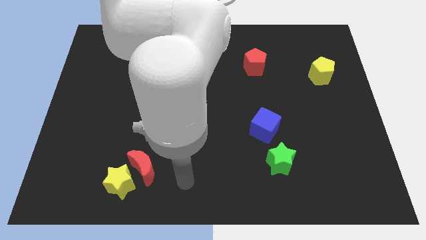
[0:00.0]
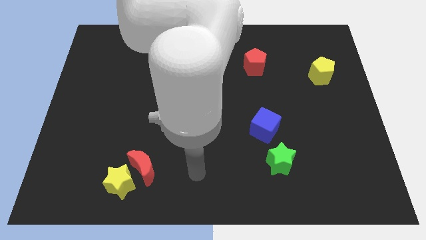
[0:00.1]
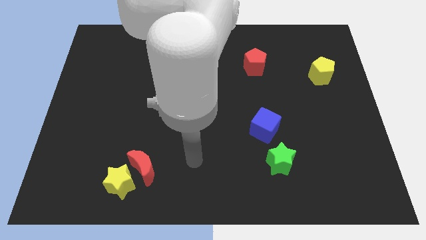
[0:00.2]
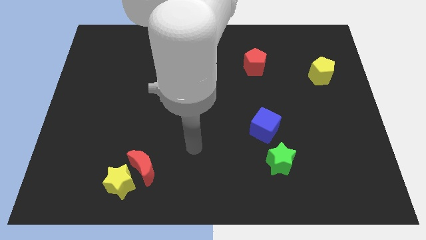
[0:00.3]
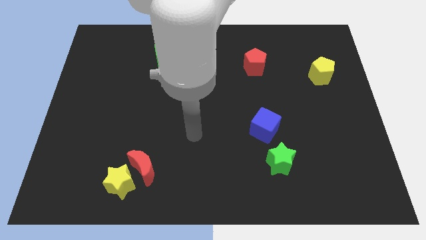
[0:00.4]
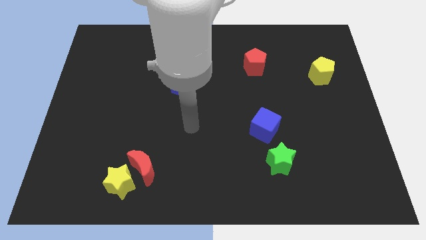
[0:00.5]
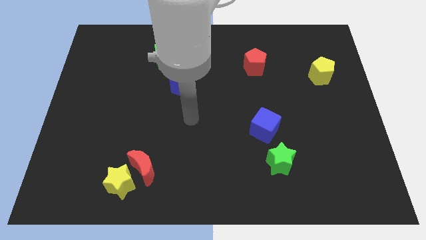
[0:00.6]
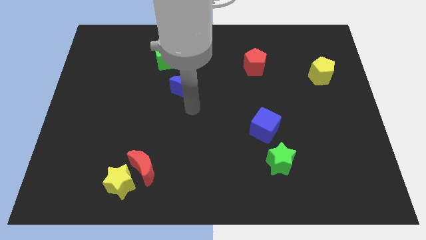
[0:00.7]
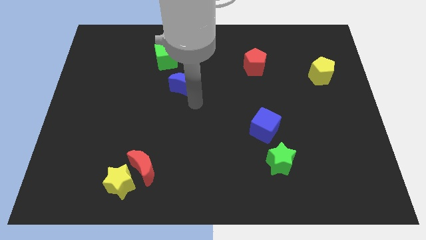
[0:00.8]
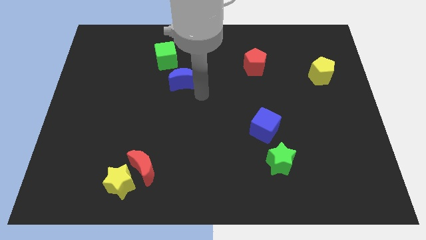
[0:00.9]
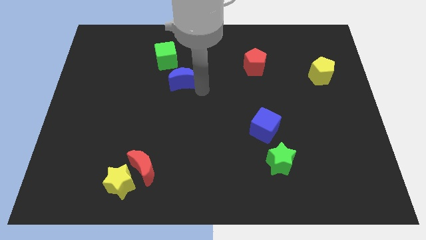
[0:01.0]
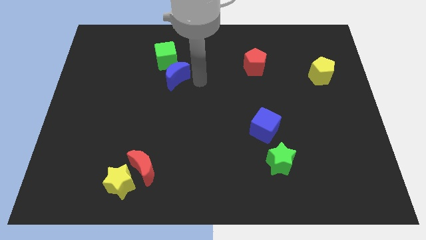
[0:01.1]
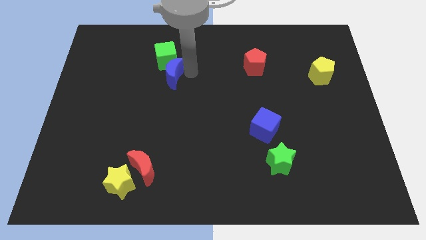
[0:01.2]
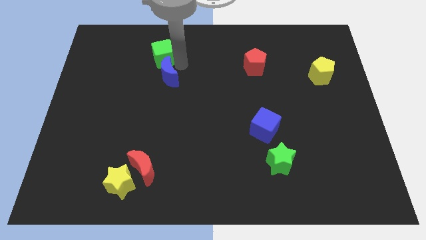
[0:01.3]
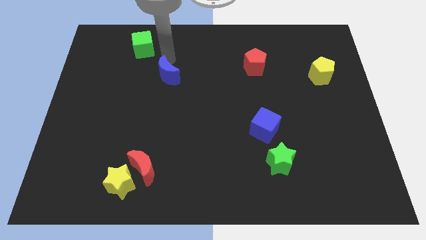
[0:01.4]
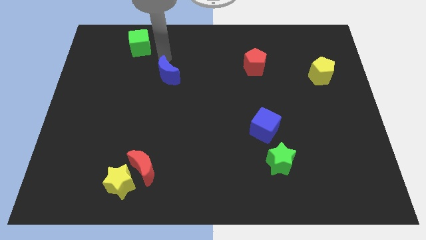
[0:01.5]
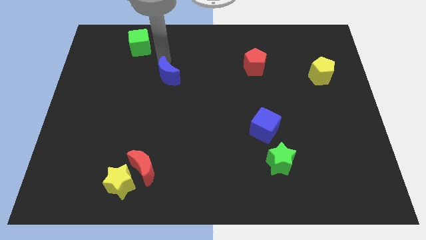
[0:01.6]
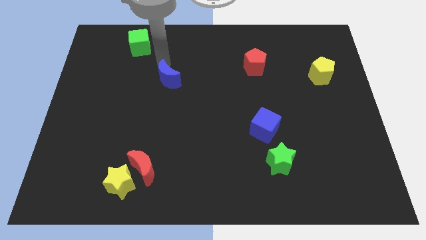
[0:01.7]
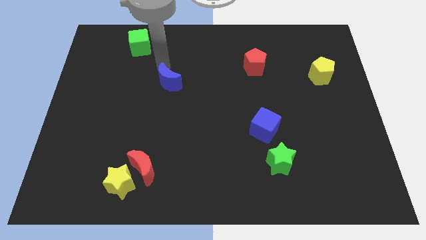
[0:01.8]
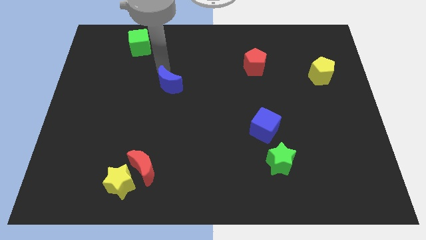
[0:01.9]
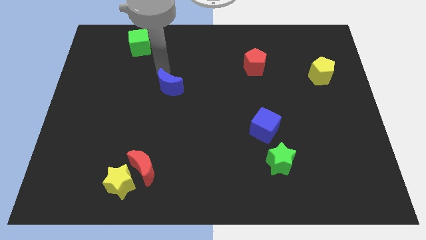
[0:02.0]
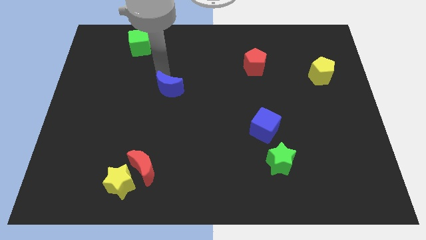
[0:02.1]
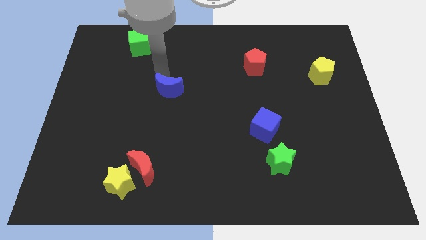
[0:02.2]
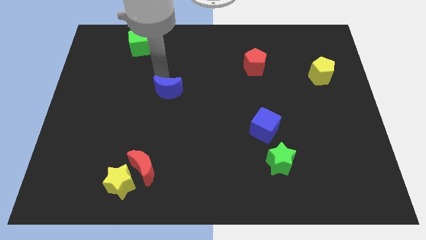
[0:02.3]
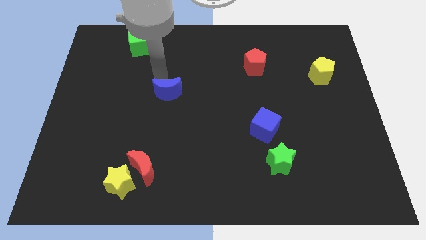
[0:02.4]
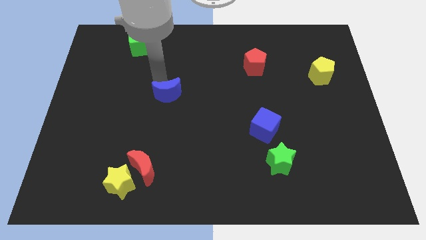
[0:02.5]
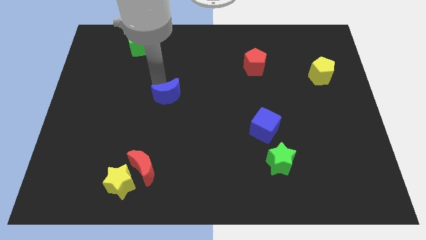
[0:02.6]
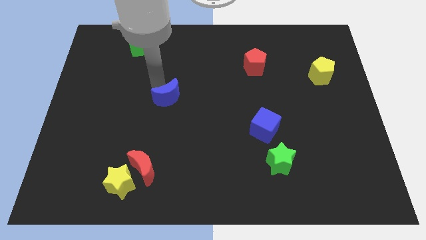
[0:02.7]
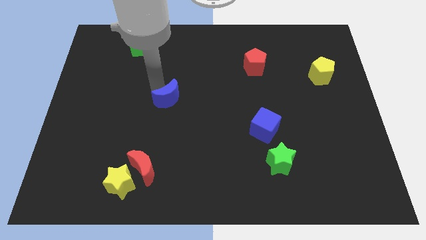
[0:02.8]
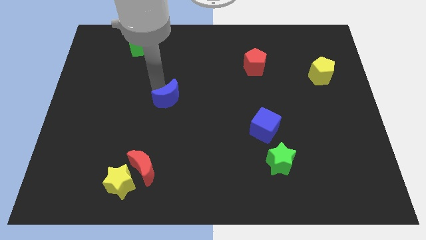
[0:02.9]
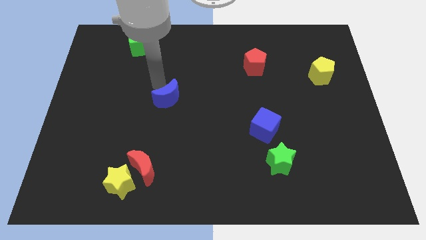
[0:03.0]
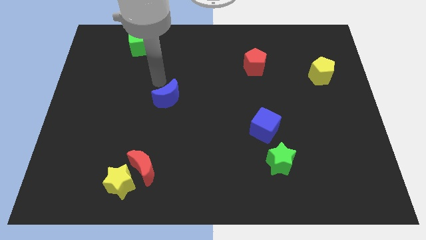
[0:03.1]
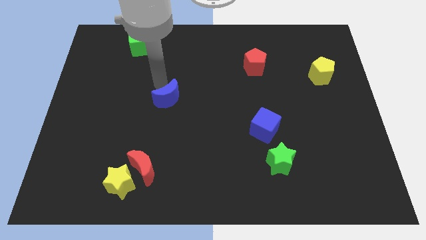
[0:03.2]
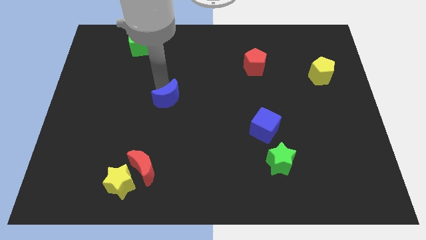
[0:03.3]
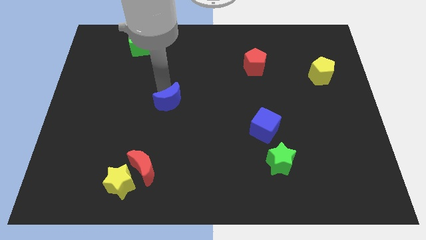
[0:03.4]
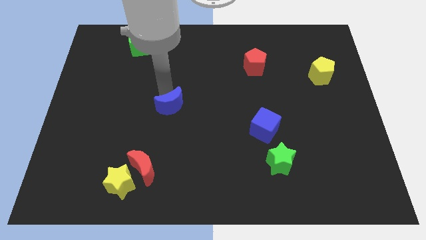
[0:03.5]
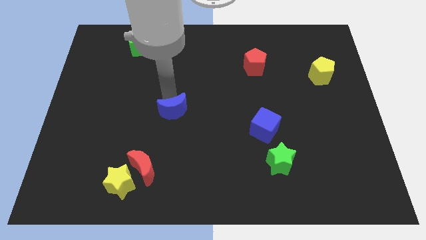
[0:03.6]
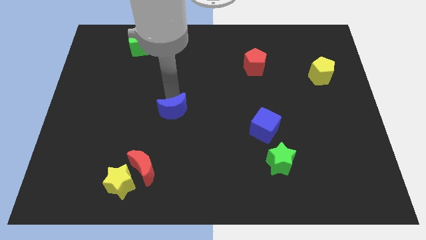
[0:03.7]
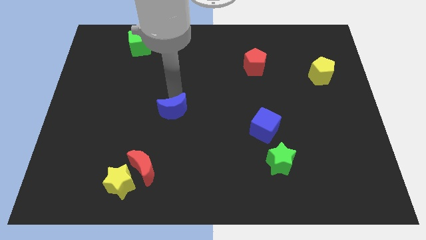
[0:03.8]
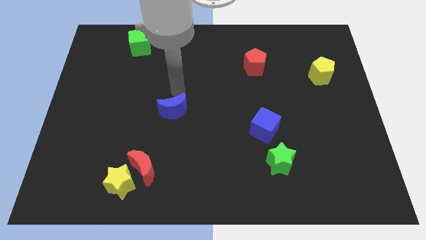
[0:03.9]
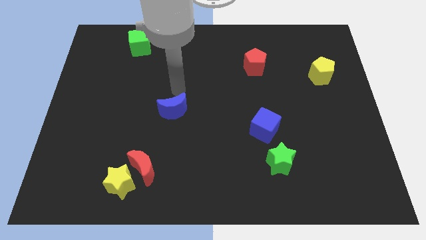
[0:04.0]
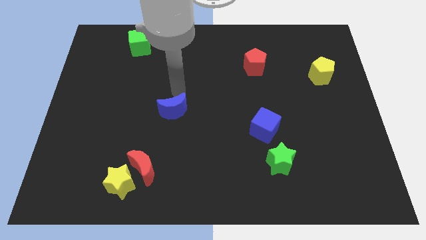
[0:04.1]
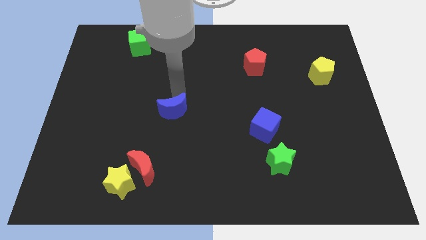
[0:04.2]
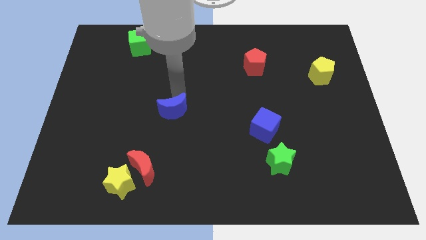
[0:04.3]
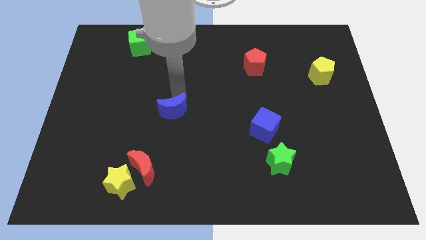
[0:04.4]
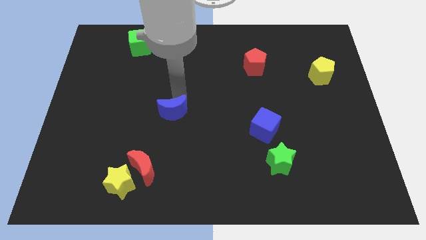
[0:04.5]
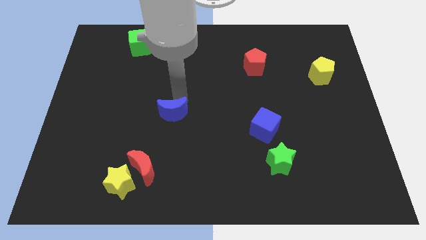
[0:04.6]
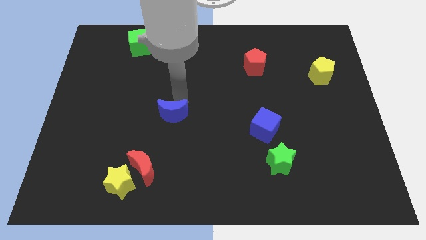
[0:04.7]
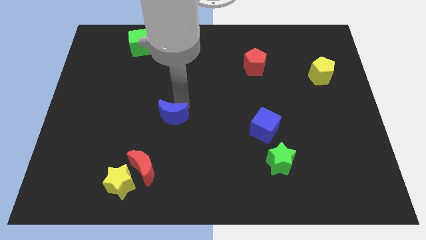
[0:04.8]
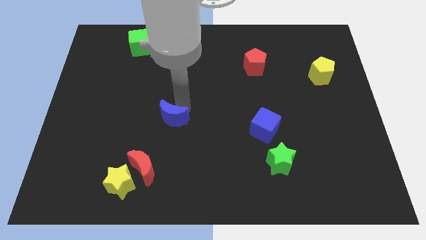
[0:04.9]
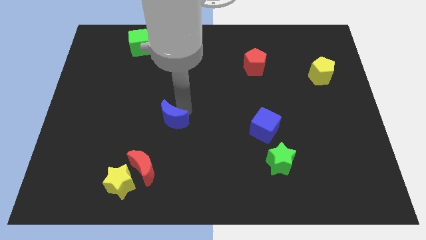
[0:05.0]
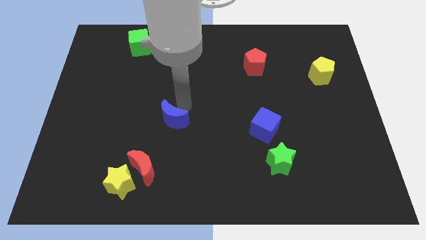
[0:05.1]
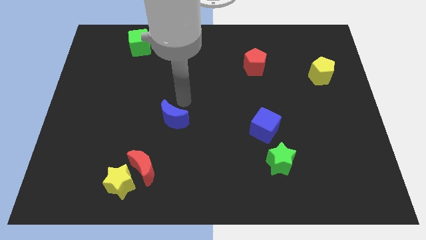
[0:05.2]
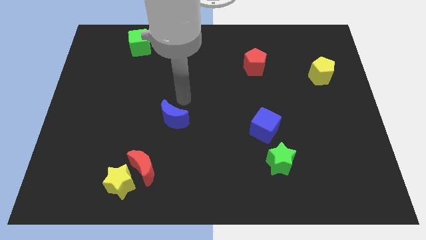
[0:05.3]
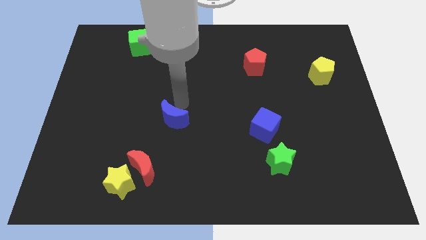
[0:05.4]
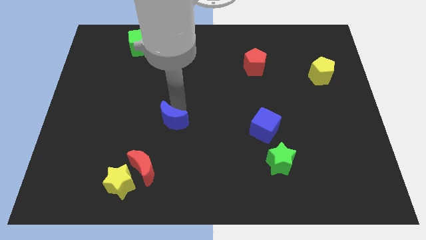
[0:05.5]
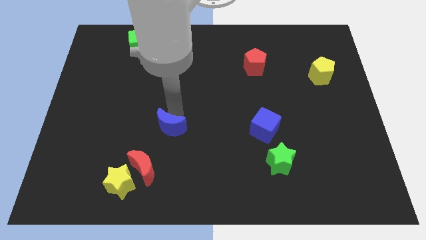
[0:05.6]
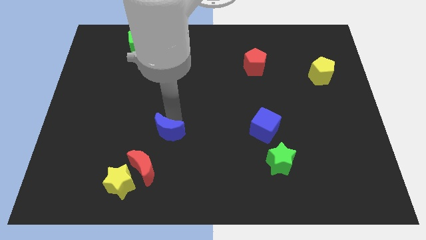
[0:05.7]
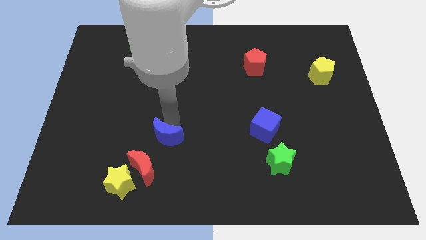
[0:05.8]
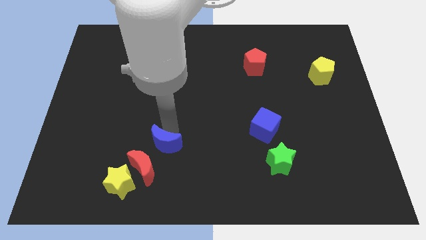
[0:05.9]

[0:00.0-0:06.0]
slide the blue moon diagonally up and to the right of the yellow star

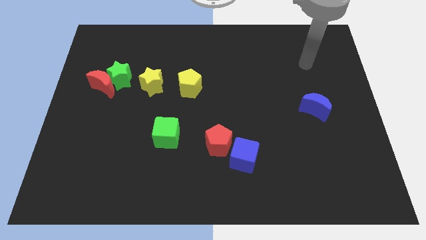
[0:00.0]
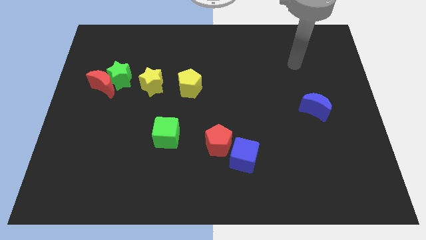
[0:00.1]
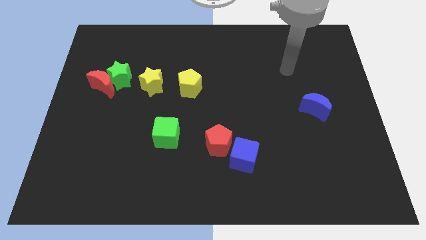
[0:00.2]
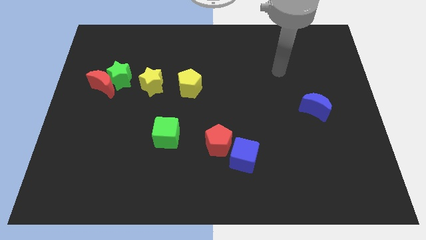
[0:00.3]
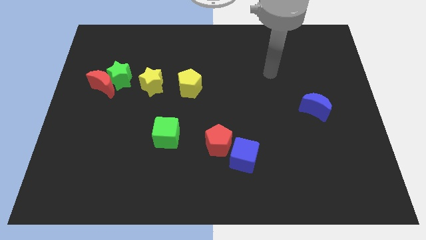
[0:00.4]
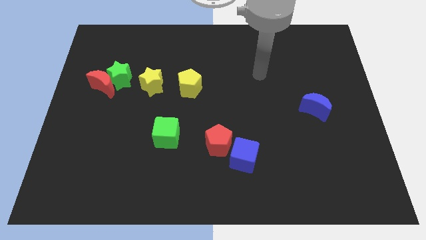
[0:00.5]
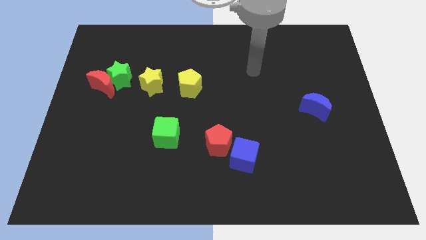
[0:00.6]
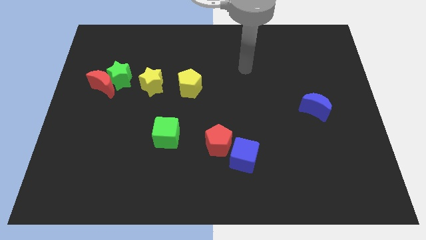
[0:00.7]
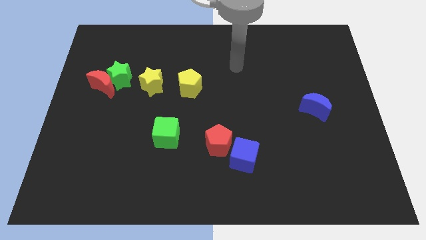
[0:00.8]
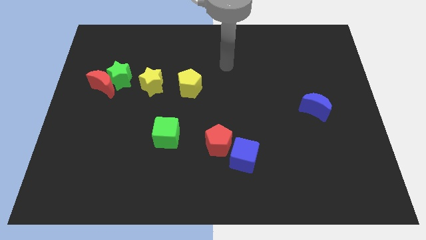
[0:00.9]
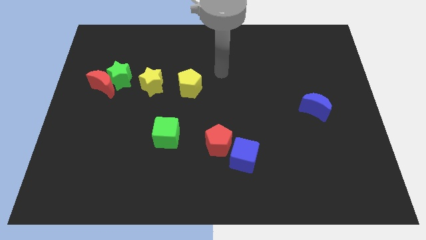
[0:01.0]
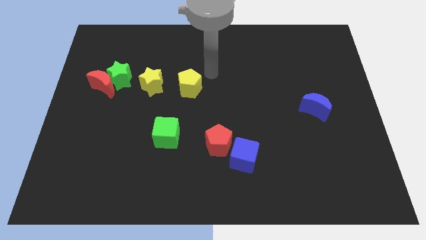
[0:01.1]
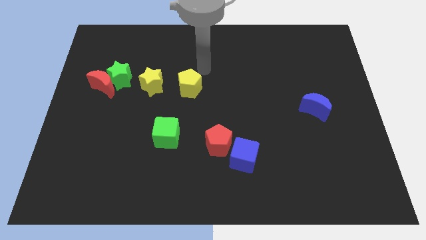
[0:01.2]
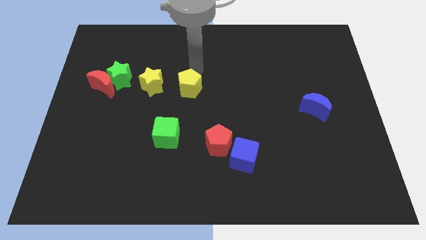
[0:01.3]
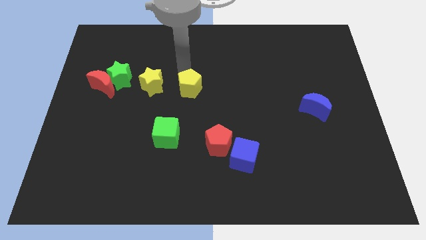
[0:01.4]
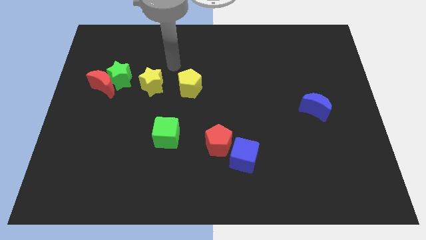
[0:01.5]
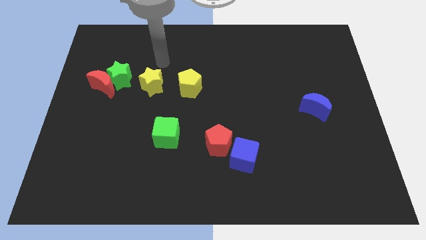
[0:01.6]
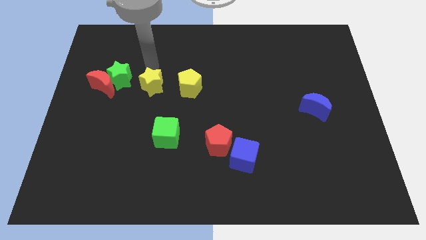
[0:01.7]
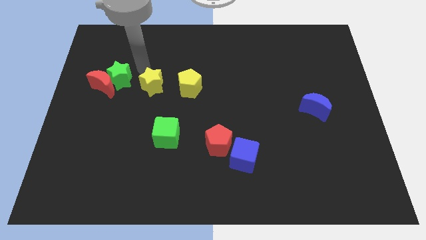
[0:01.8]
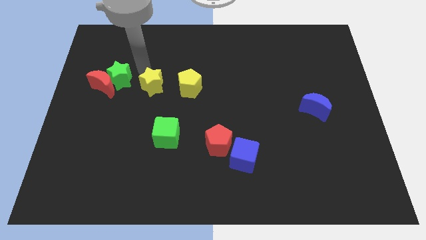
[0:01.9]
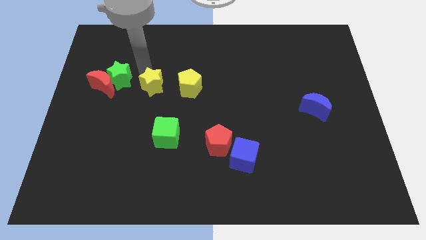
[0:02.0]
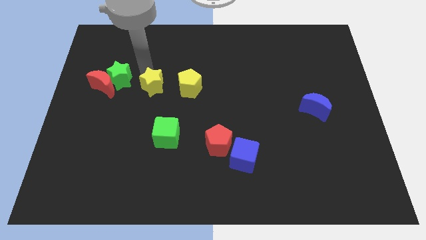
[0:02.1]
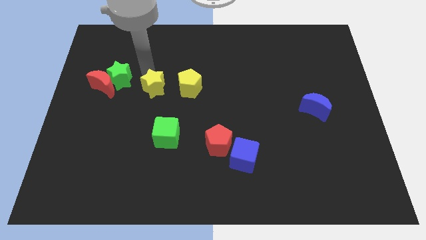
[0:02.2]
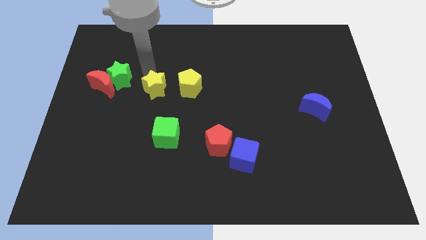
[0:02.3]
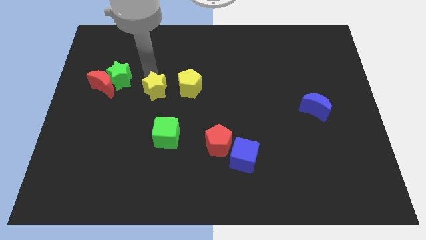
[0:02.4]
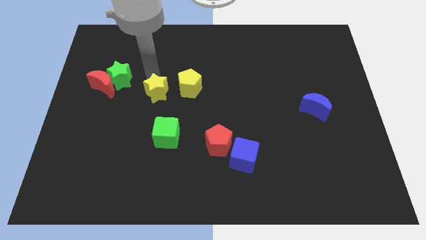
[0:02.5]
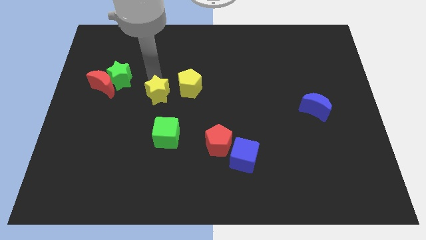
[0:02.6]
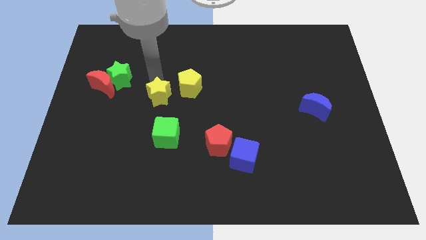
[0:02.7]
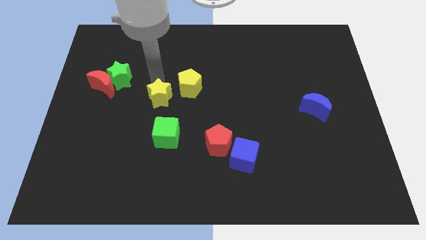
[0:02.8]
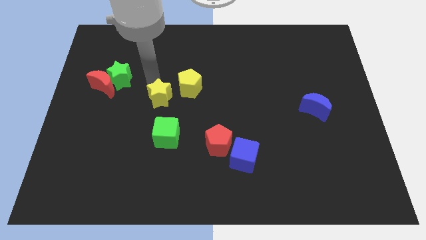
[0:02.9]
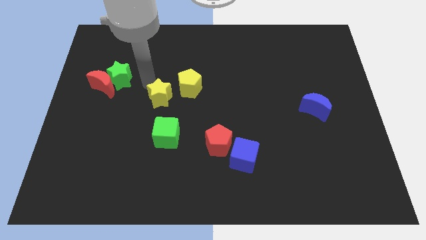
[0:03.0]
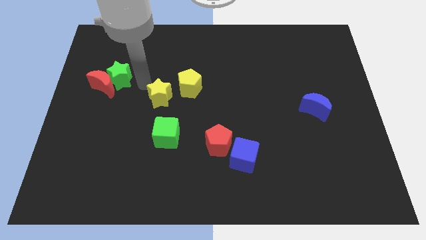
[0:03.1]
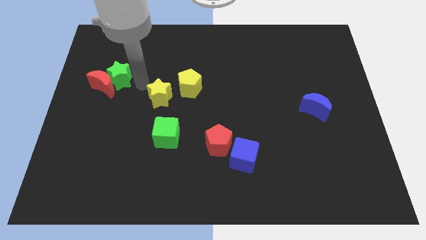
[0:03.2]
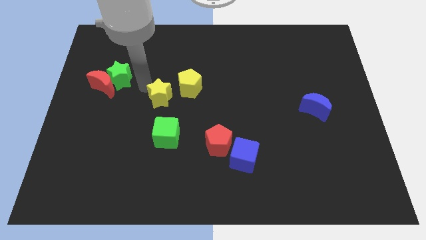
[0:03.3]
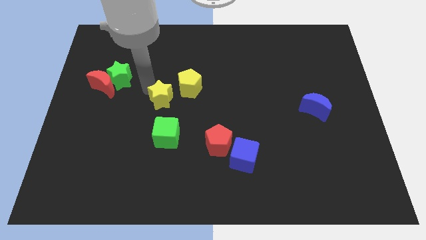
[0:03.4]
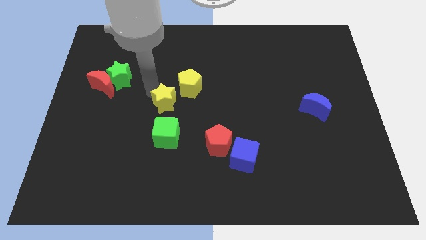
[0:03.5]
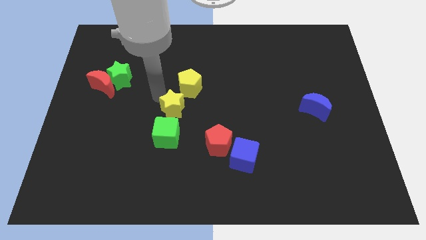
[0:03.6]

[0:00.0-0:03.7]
slide the yellow star to the bottom side of the yellow pentagon
